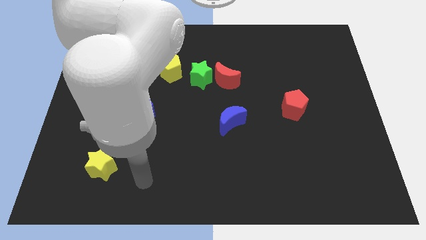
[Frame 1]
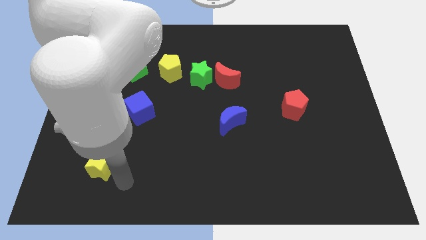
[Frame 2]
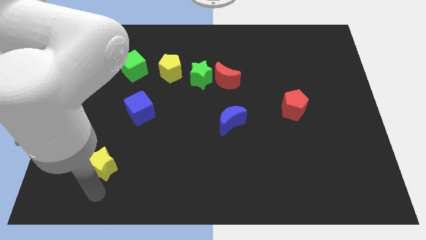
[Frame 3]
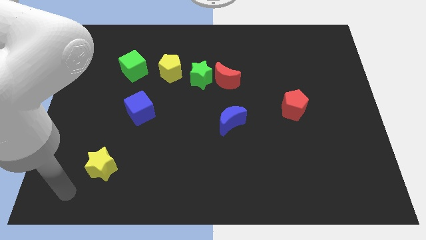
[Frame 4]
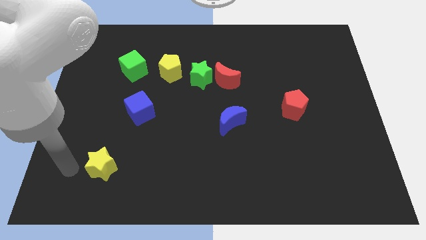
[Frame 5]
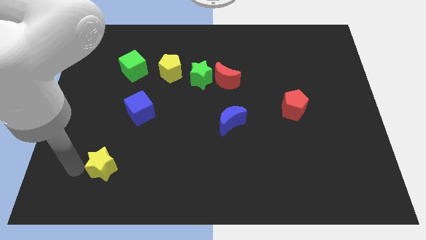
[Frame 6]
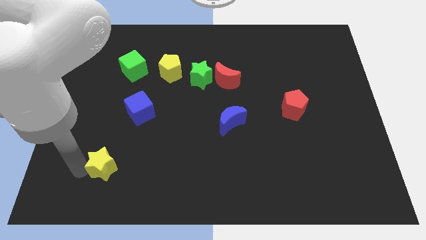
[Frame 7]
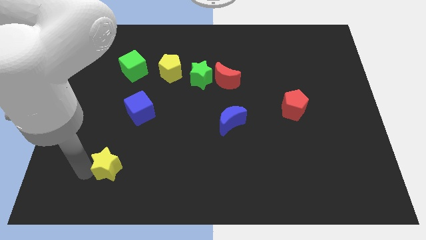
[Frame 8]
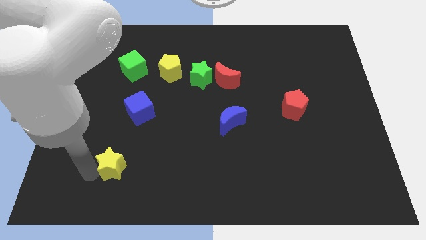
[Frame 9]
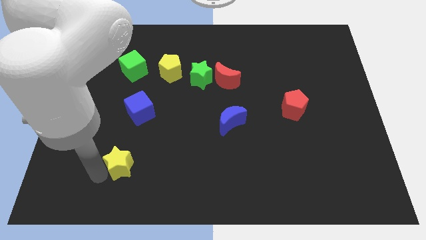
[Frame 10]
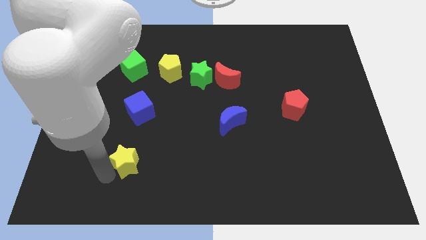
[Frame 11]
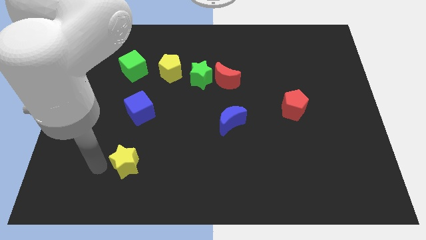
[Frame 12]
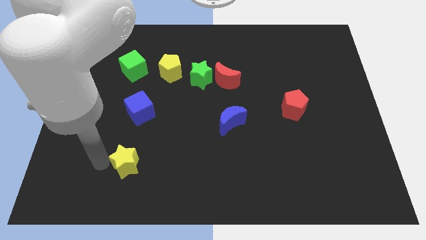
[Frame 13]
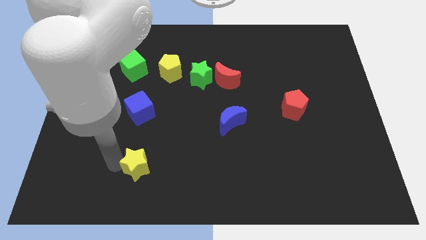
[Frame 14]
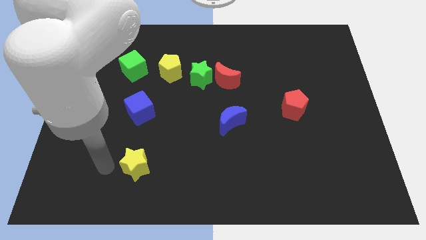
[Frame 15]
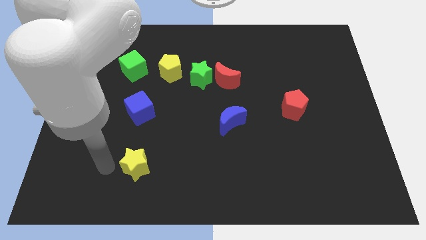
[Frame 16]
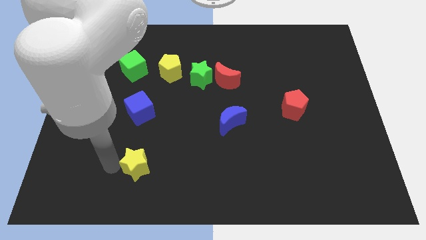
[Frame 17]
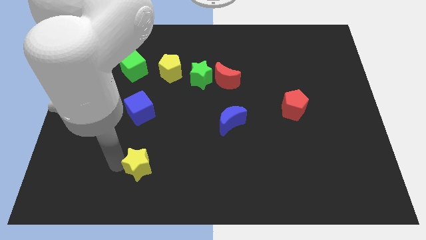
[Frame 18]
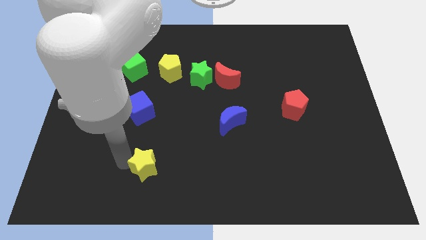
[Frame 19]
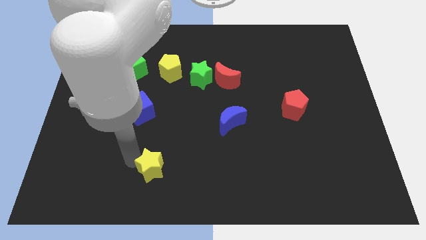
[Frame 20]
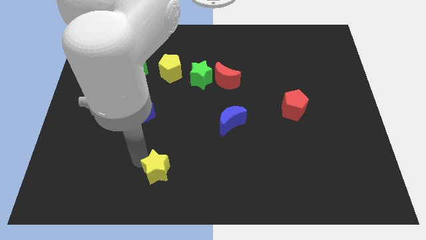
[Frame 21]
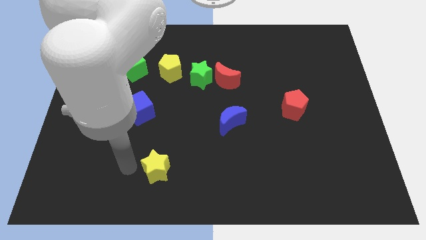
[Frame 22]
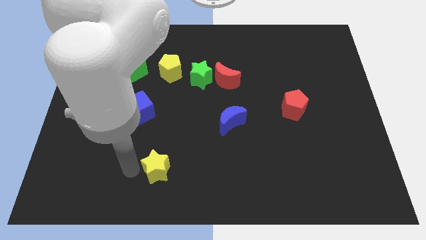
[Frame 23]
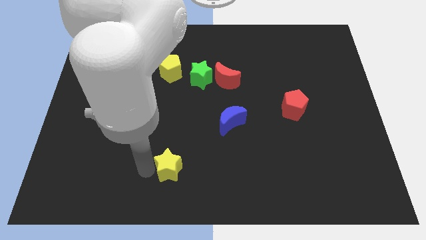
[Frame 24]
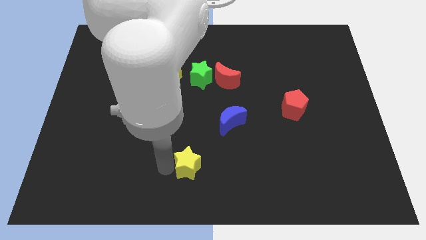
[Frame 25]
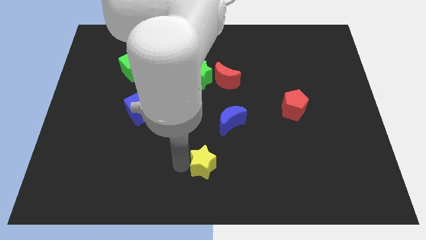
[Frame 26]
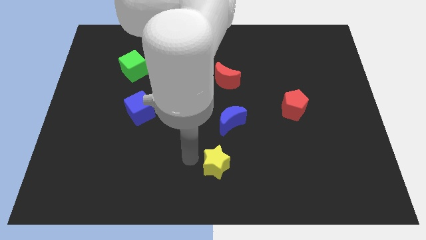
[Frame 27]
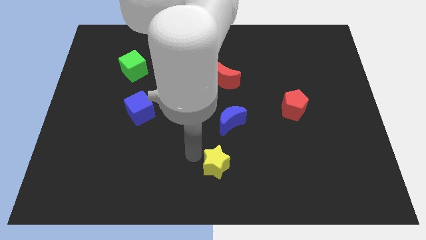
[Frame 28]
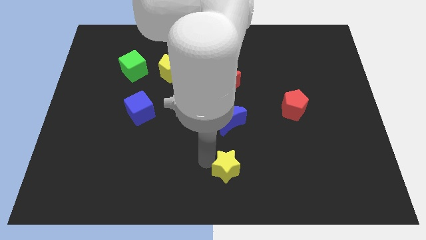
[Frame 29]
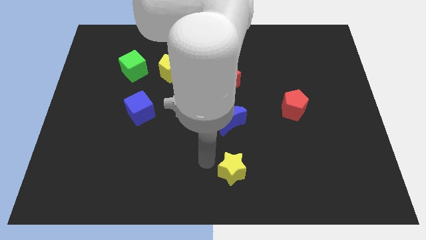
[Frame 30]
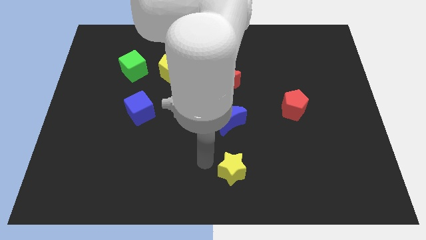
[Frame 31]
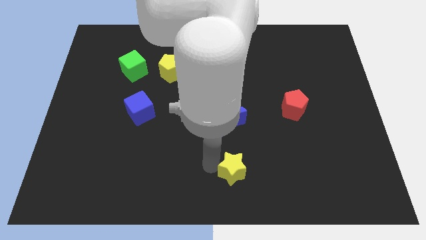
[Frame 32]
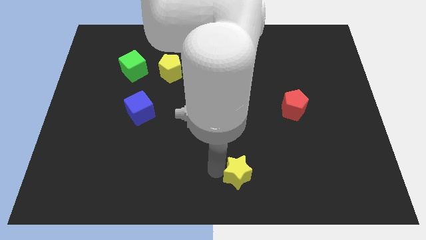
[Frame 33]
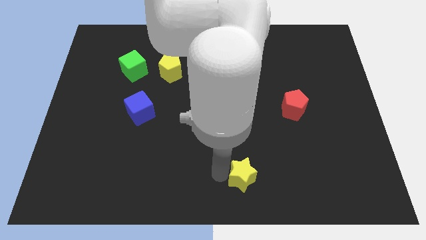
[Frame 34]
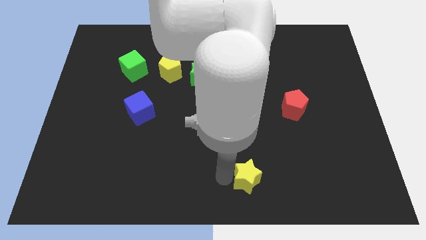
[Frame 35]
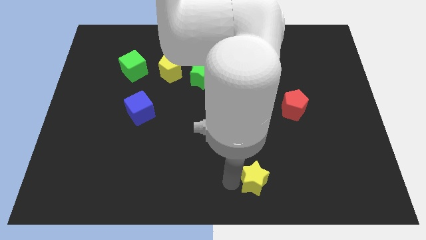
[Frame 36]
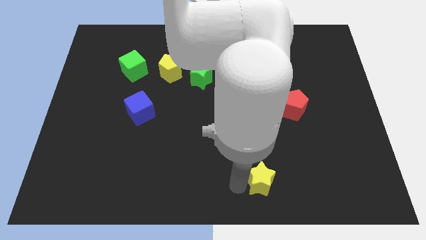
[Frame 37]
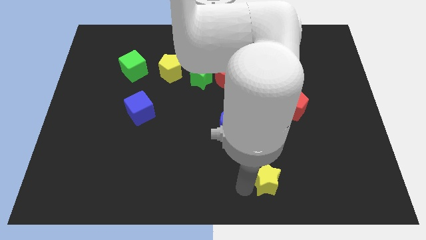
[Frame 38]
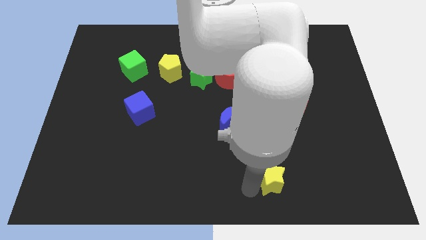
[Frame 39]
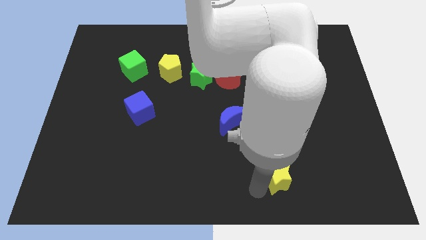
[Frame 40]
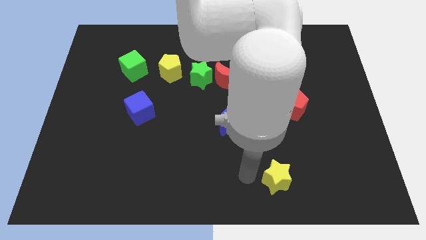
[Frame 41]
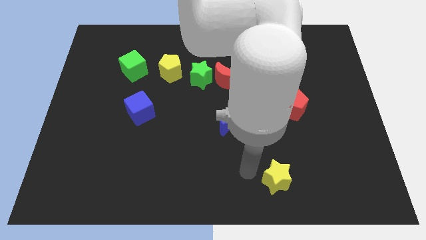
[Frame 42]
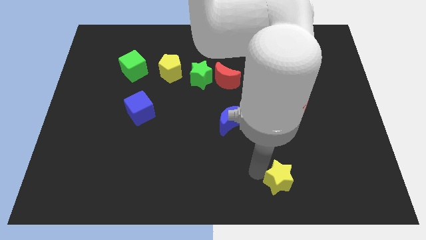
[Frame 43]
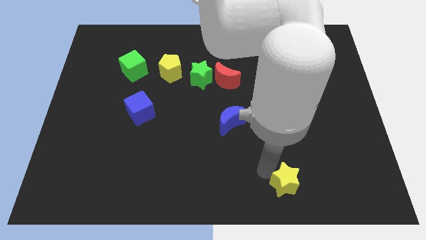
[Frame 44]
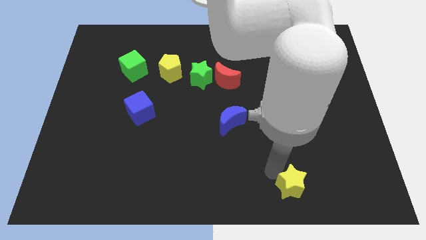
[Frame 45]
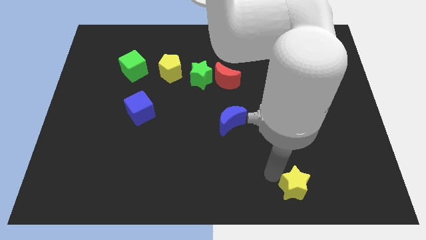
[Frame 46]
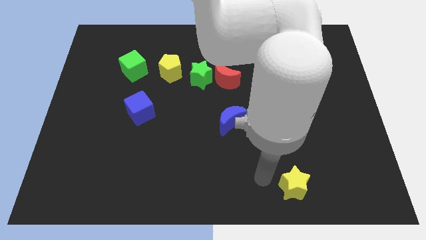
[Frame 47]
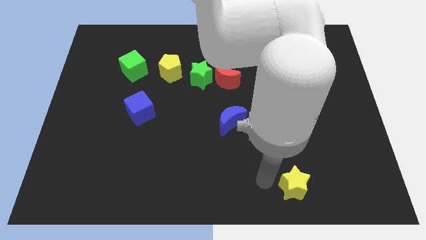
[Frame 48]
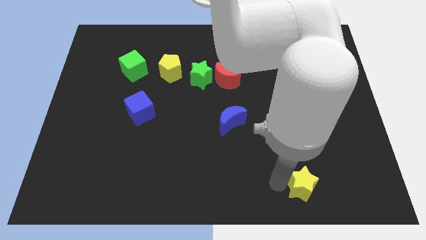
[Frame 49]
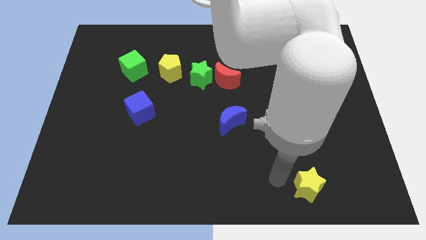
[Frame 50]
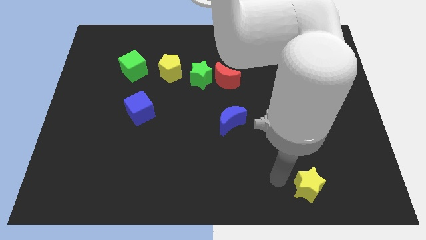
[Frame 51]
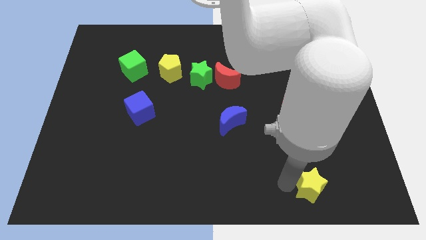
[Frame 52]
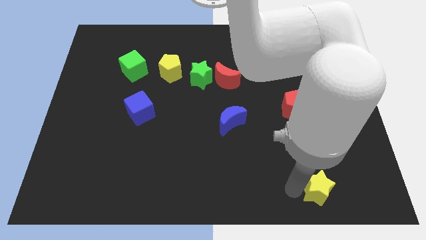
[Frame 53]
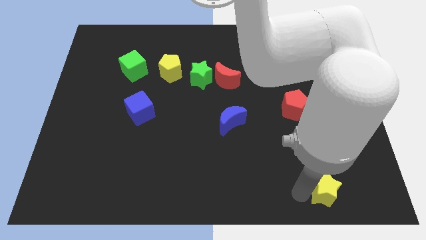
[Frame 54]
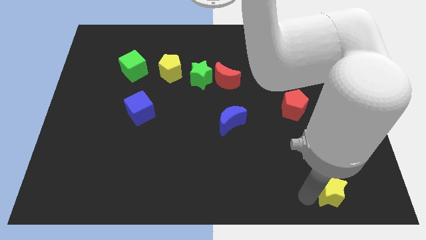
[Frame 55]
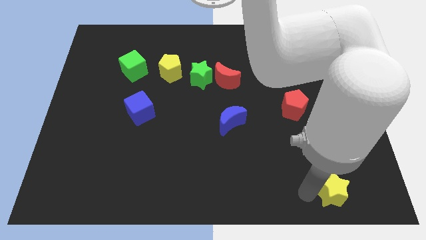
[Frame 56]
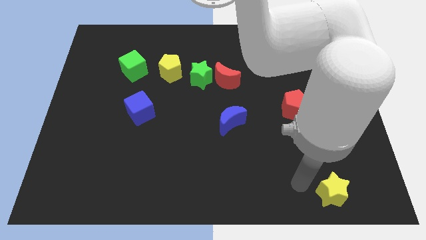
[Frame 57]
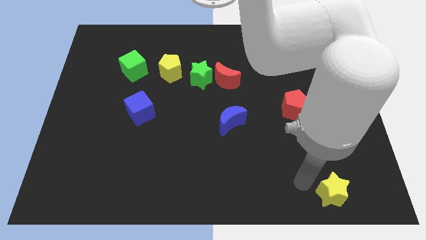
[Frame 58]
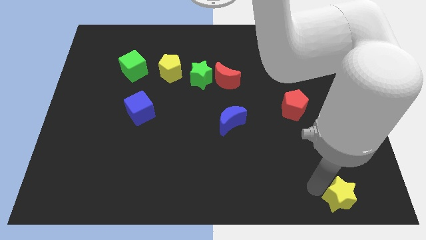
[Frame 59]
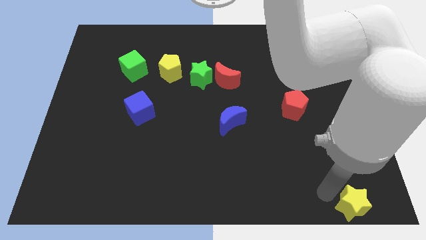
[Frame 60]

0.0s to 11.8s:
push the yellow star to the bottom right
